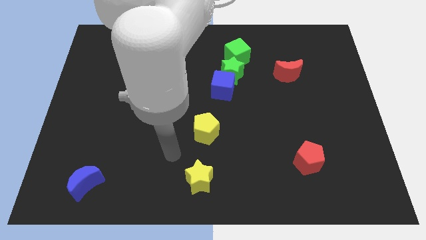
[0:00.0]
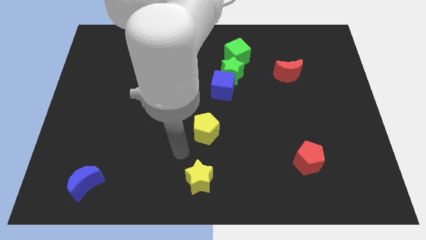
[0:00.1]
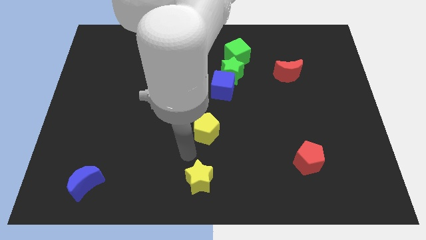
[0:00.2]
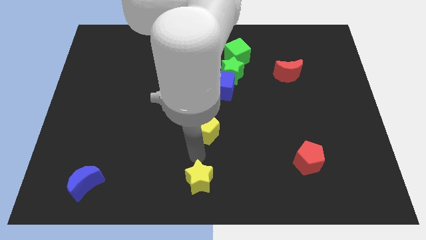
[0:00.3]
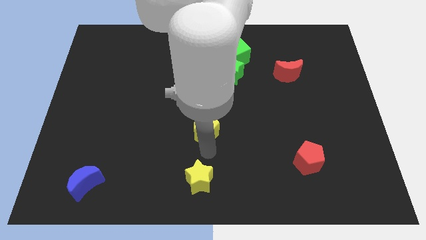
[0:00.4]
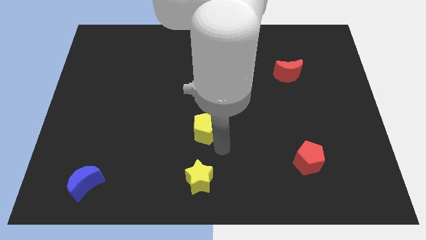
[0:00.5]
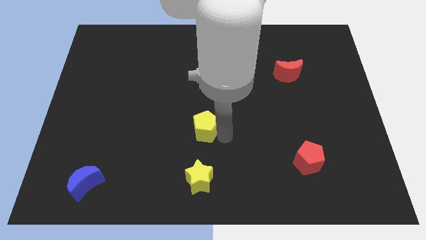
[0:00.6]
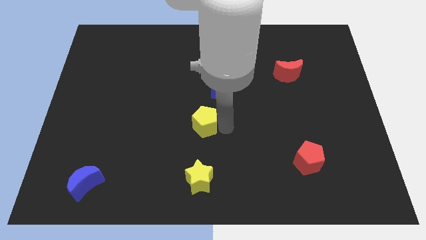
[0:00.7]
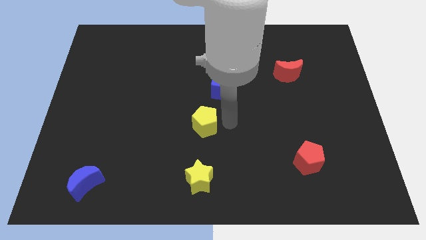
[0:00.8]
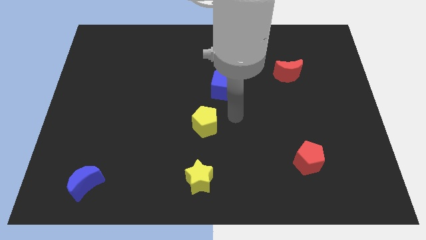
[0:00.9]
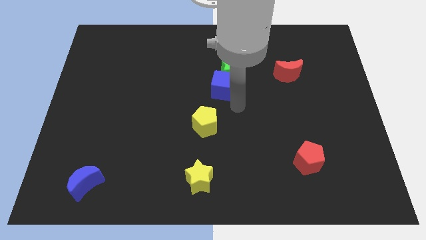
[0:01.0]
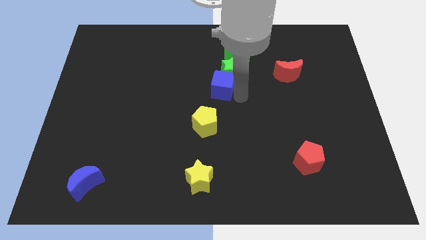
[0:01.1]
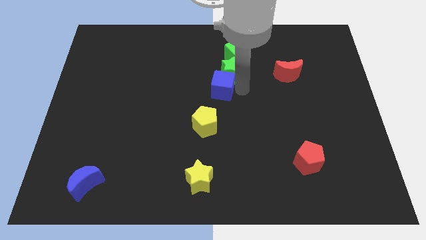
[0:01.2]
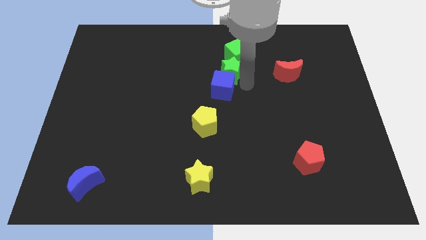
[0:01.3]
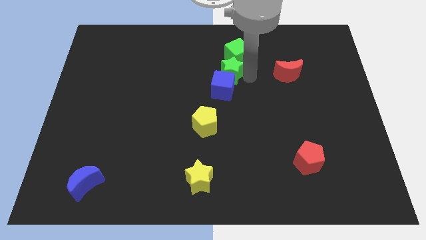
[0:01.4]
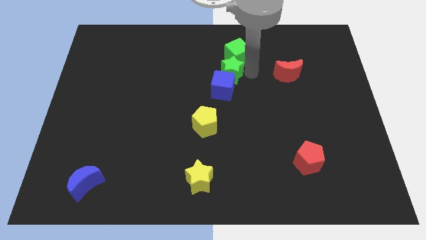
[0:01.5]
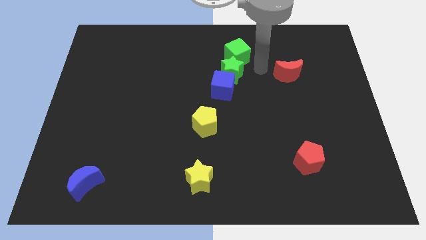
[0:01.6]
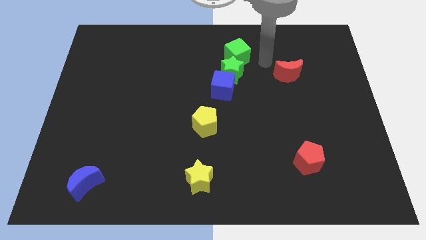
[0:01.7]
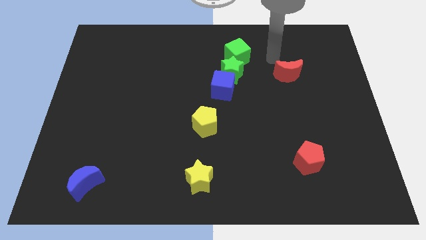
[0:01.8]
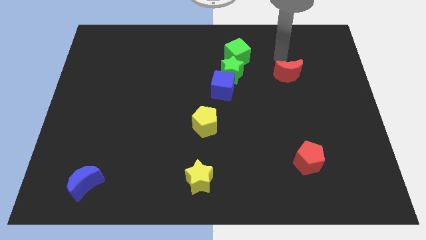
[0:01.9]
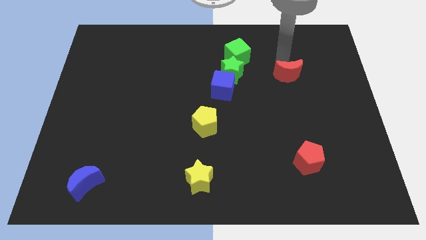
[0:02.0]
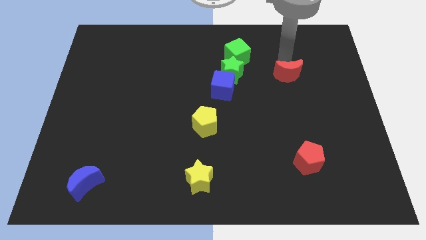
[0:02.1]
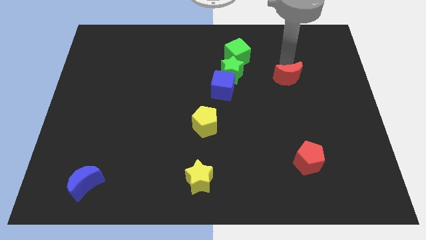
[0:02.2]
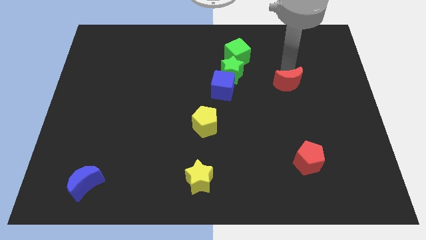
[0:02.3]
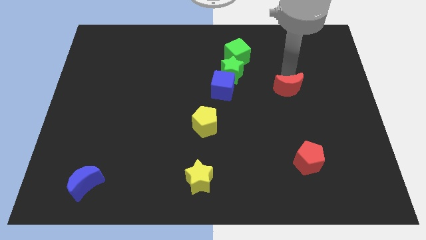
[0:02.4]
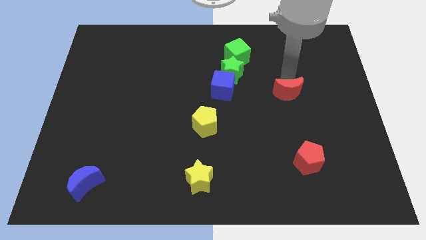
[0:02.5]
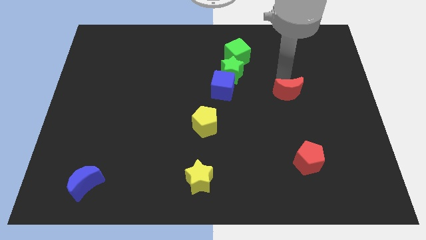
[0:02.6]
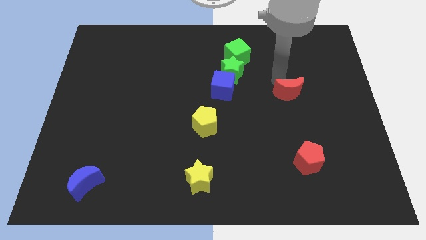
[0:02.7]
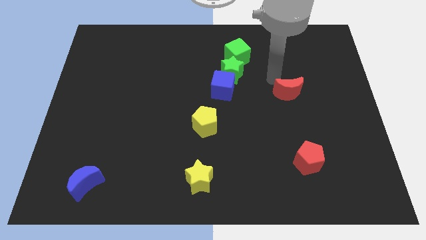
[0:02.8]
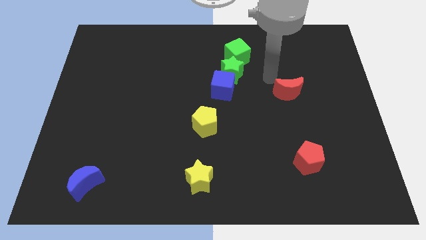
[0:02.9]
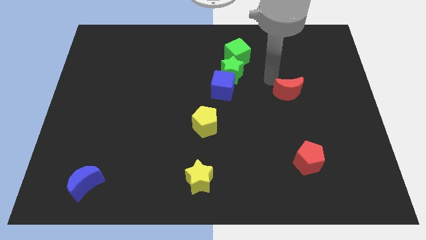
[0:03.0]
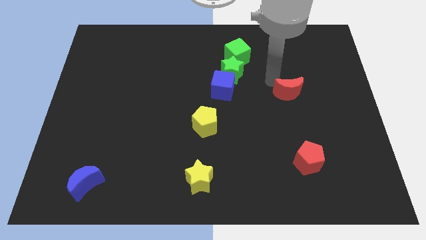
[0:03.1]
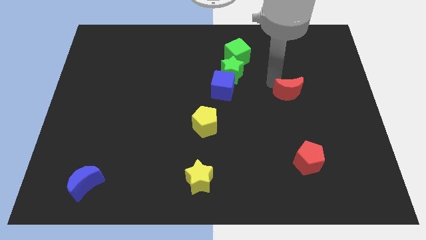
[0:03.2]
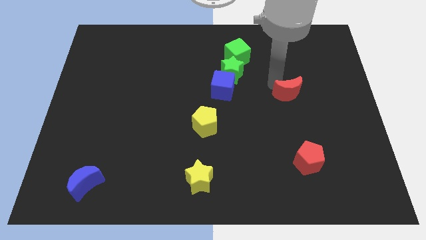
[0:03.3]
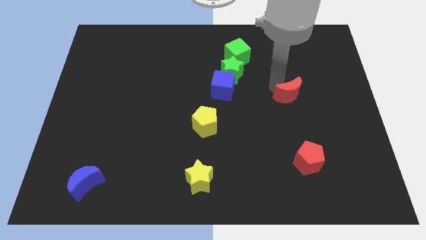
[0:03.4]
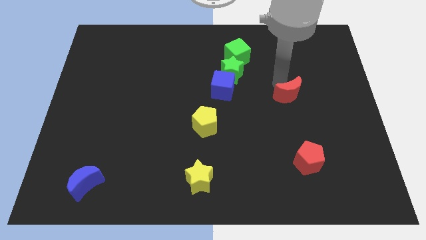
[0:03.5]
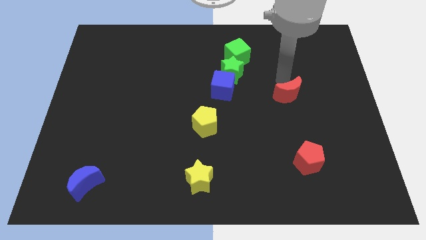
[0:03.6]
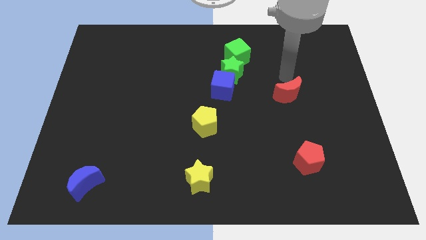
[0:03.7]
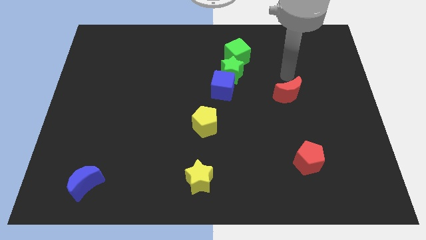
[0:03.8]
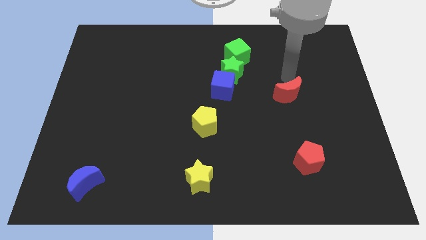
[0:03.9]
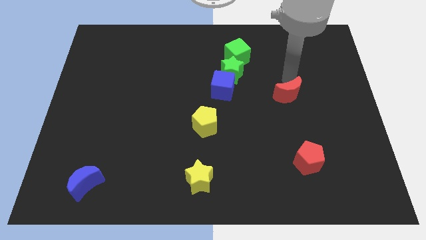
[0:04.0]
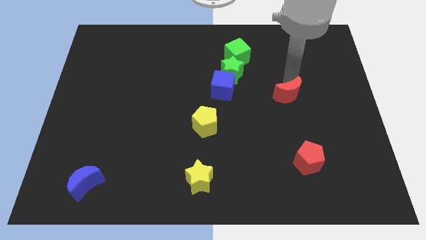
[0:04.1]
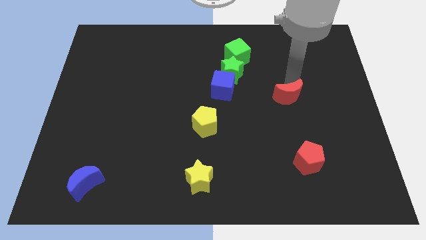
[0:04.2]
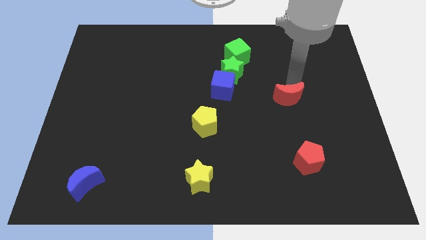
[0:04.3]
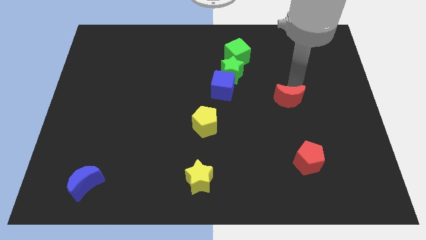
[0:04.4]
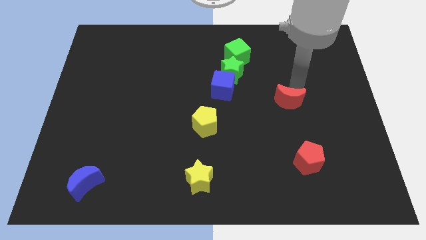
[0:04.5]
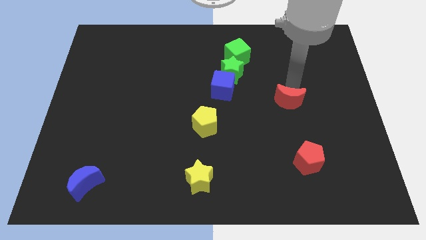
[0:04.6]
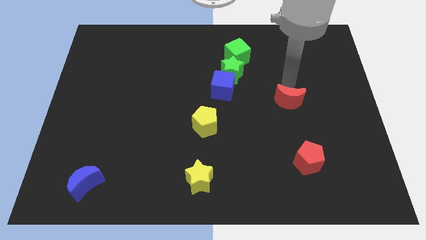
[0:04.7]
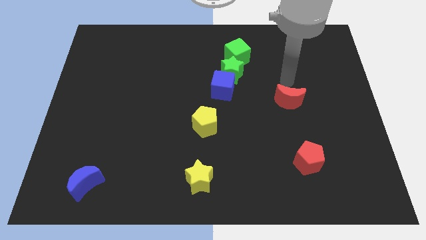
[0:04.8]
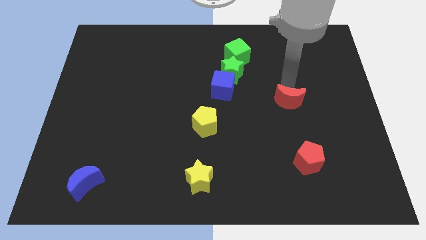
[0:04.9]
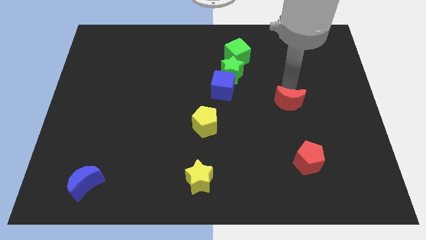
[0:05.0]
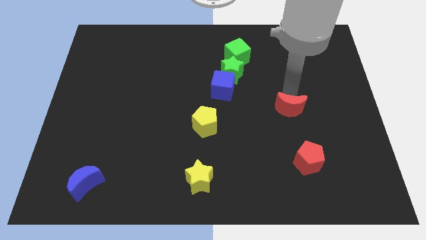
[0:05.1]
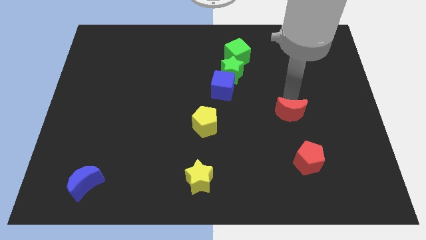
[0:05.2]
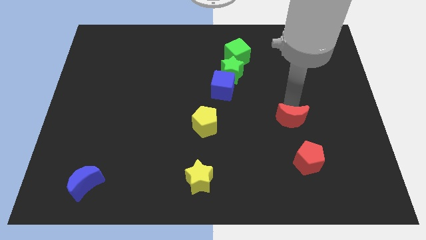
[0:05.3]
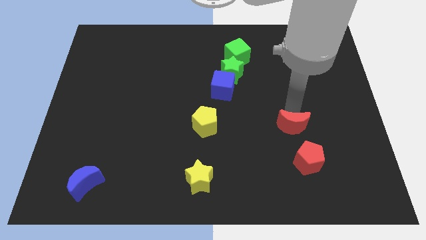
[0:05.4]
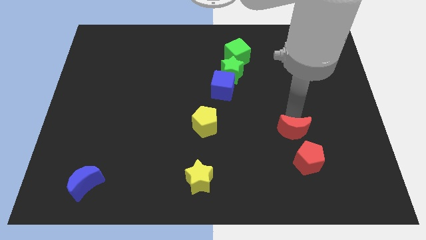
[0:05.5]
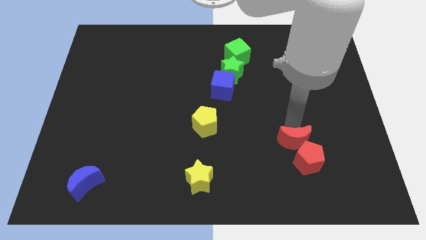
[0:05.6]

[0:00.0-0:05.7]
push the red moon to the red pentagon

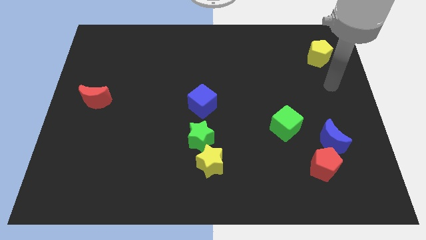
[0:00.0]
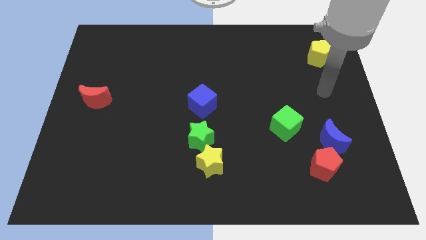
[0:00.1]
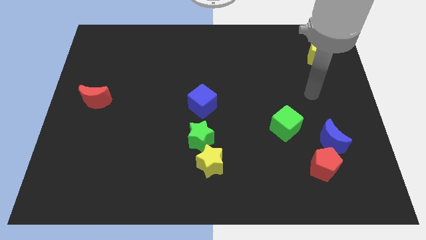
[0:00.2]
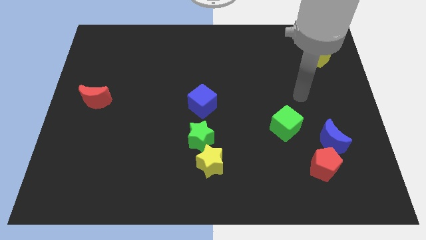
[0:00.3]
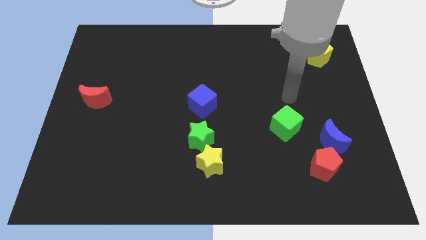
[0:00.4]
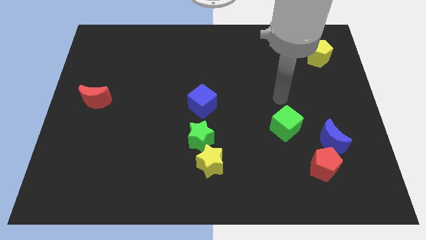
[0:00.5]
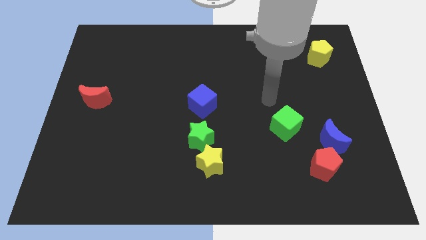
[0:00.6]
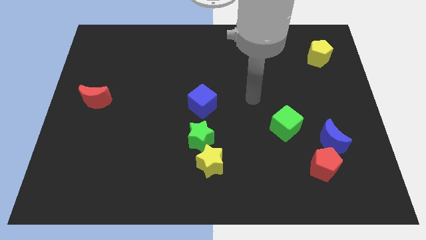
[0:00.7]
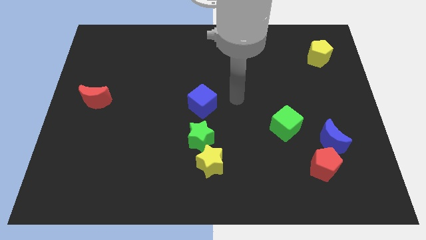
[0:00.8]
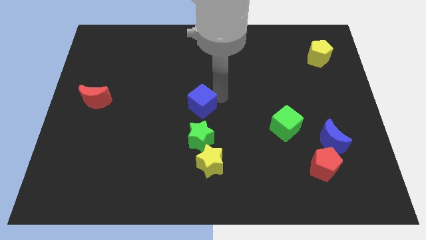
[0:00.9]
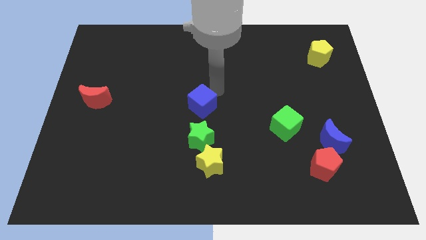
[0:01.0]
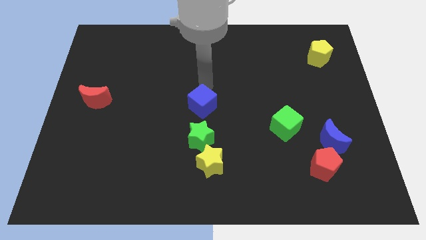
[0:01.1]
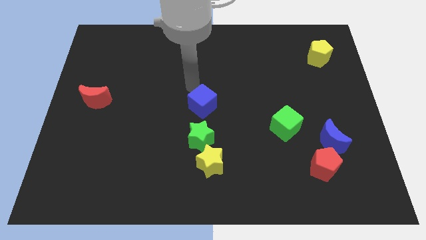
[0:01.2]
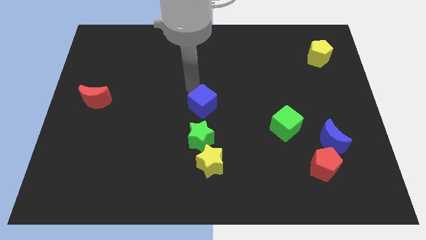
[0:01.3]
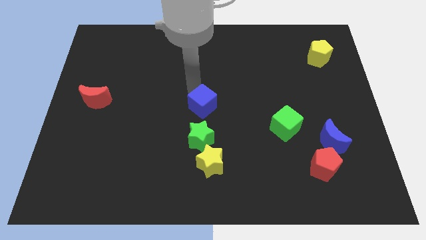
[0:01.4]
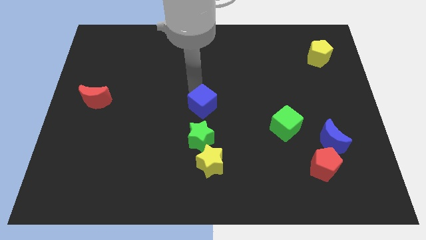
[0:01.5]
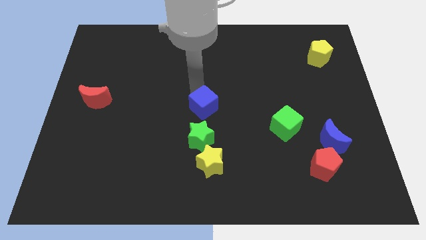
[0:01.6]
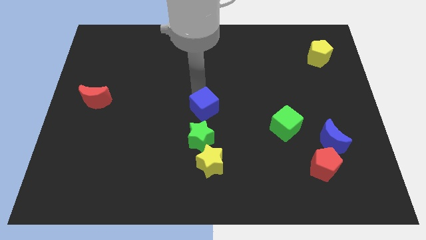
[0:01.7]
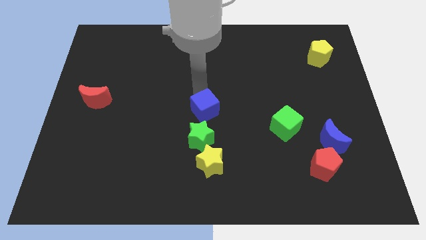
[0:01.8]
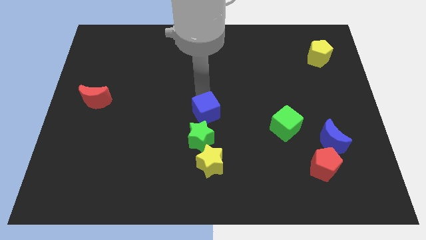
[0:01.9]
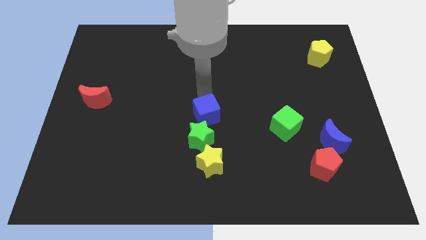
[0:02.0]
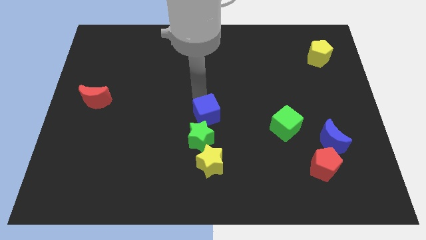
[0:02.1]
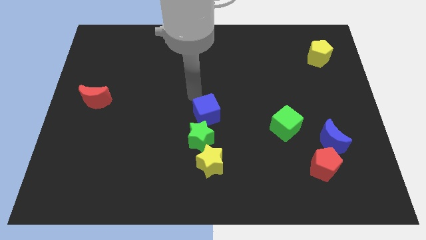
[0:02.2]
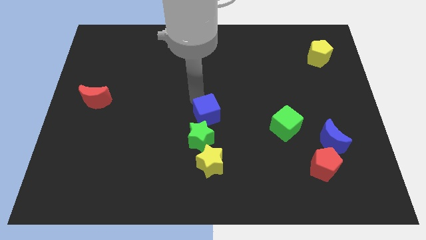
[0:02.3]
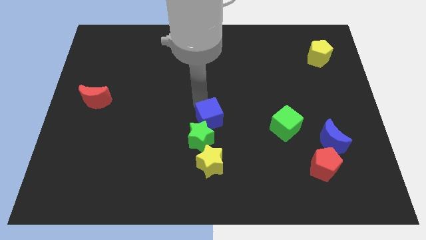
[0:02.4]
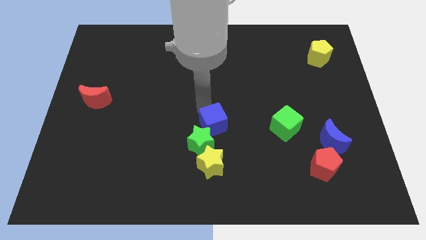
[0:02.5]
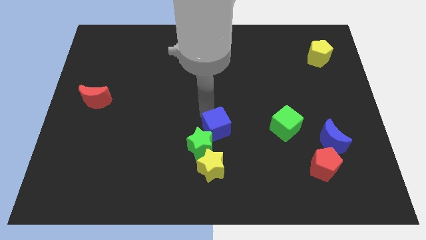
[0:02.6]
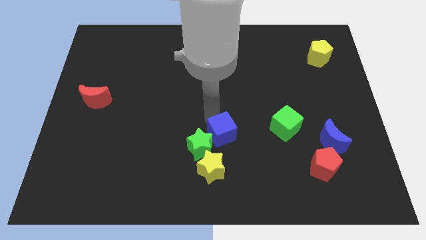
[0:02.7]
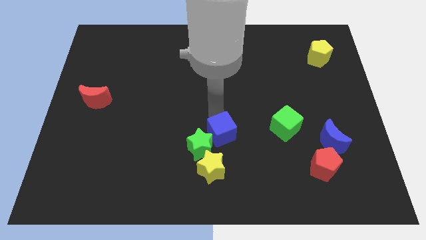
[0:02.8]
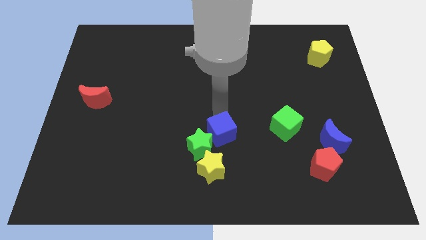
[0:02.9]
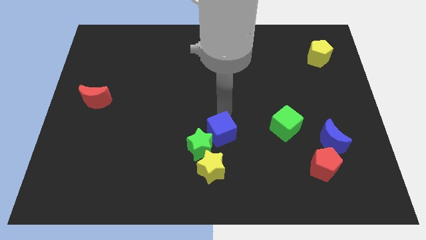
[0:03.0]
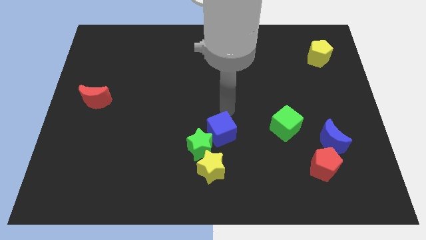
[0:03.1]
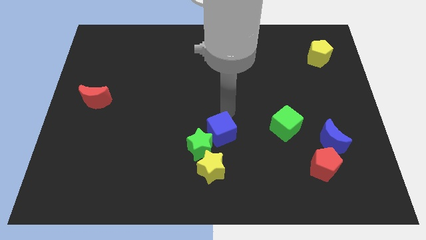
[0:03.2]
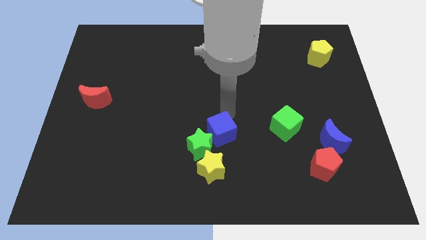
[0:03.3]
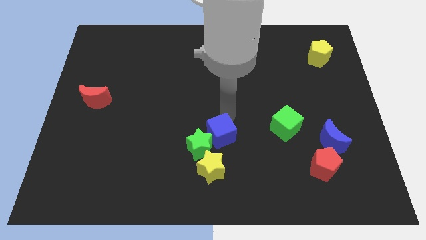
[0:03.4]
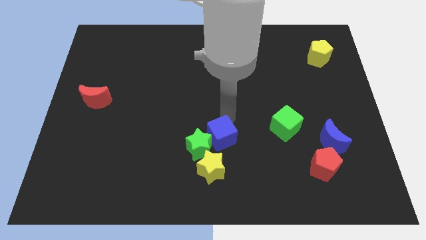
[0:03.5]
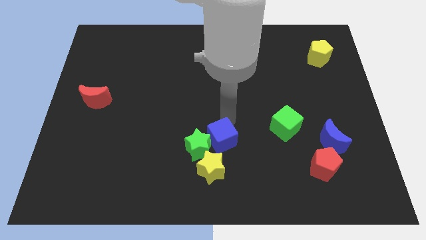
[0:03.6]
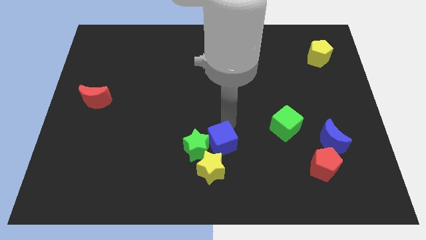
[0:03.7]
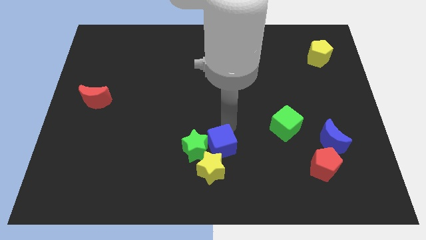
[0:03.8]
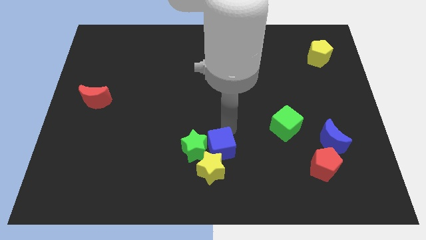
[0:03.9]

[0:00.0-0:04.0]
put the blue cube next to the yellow star
